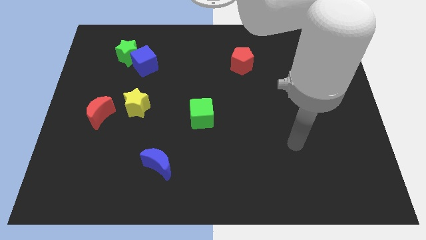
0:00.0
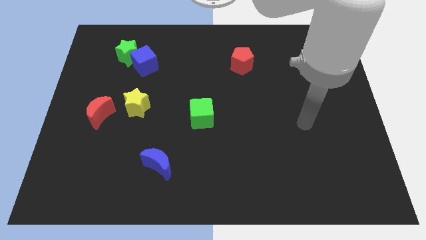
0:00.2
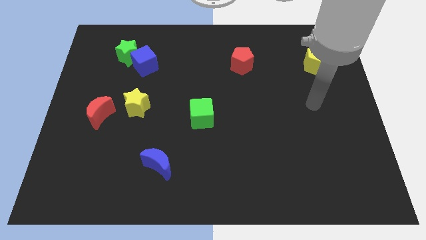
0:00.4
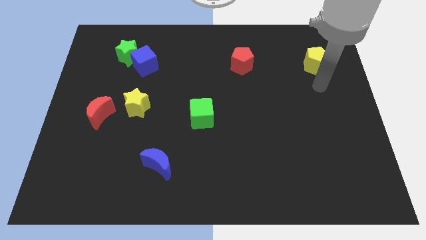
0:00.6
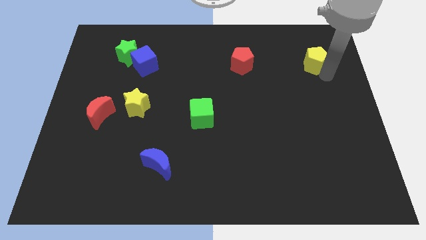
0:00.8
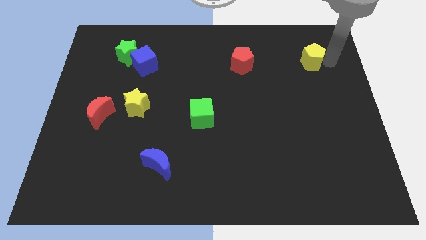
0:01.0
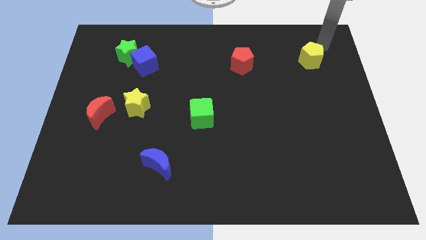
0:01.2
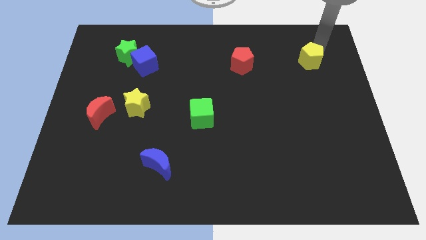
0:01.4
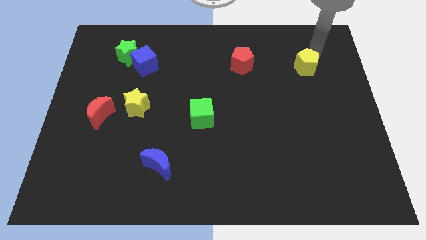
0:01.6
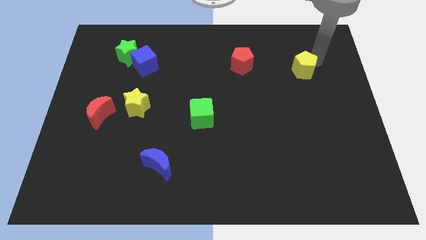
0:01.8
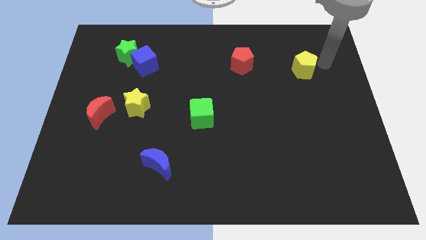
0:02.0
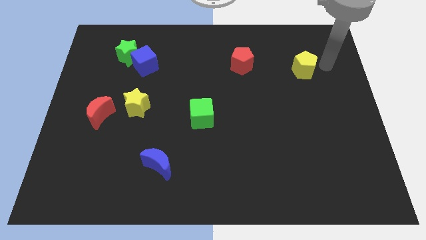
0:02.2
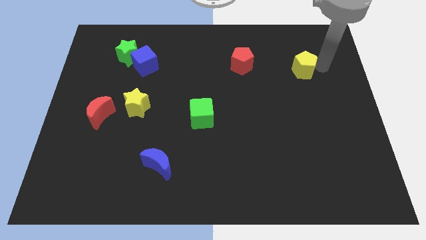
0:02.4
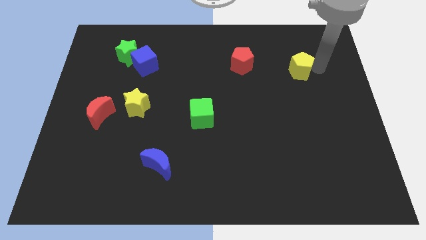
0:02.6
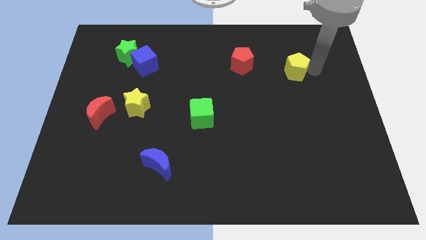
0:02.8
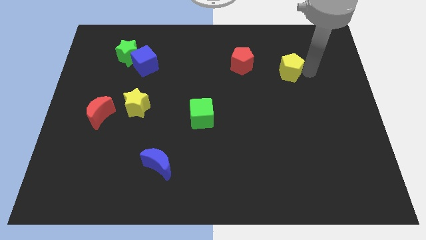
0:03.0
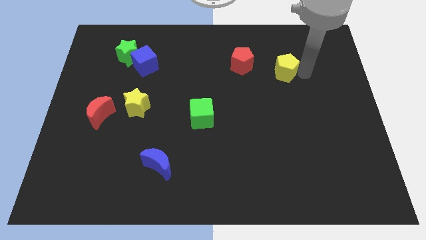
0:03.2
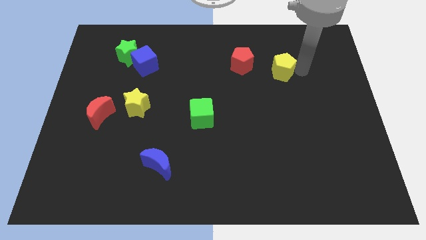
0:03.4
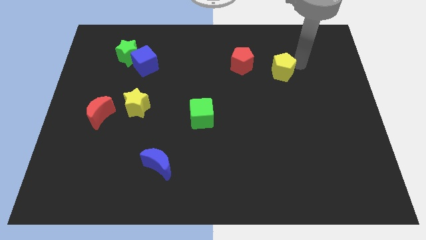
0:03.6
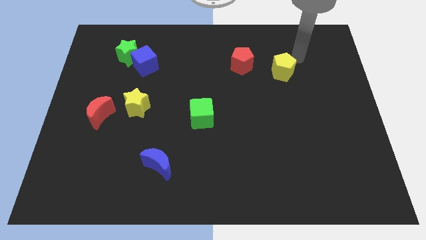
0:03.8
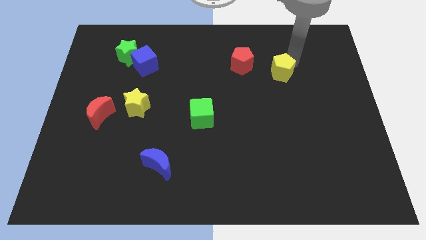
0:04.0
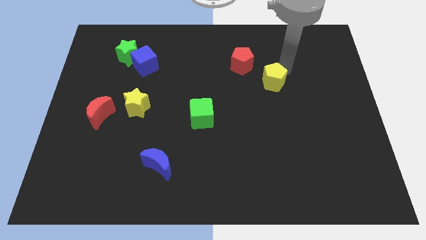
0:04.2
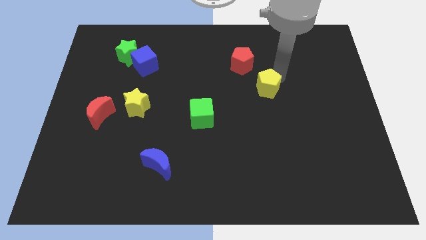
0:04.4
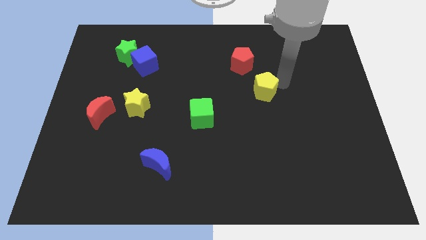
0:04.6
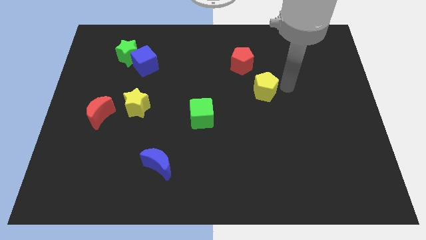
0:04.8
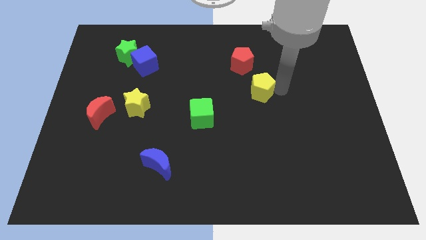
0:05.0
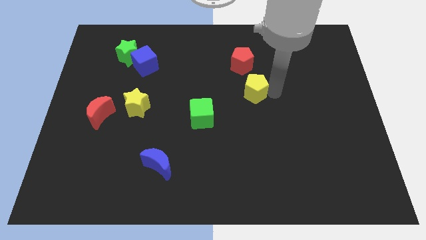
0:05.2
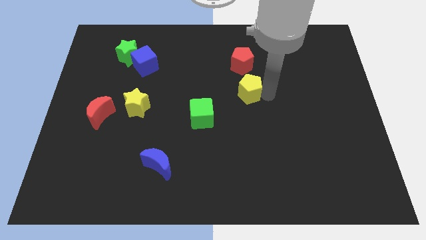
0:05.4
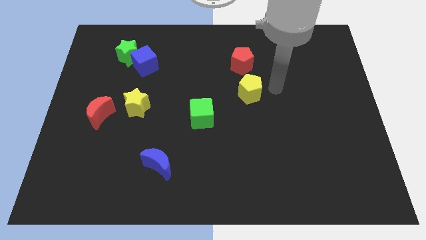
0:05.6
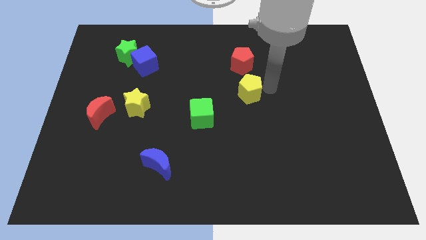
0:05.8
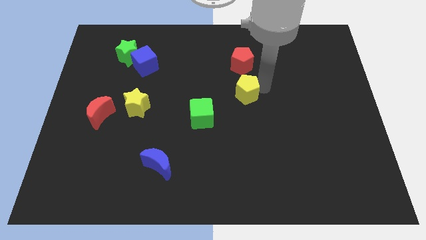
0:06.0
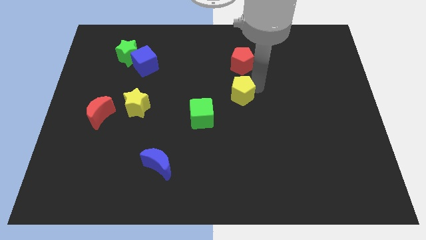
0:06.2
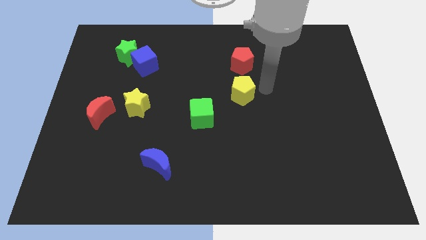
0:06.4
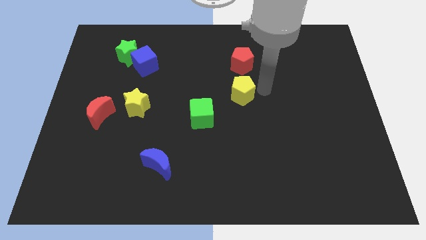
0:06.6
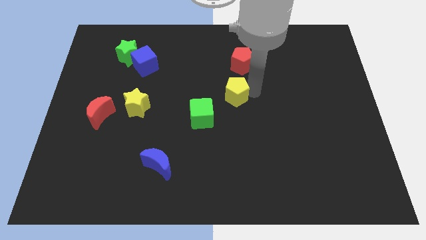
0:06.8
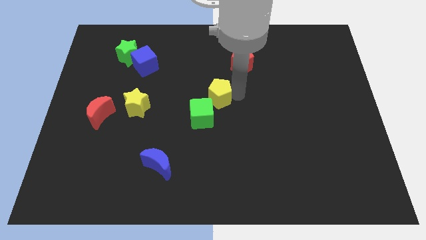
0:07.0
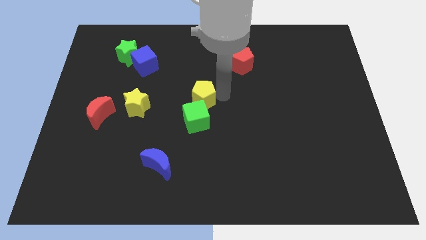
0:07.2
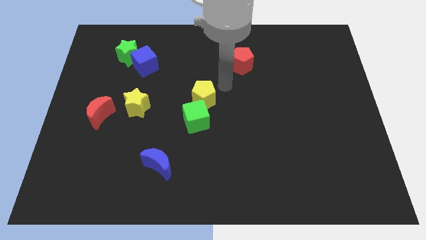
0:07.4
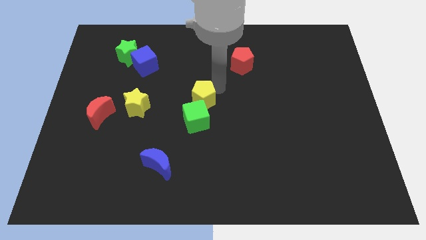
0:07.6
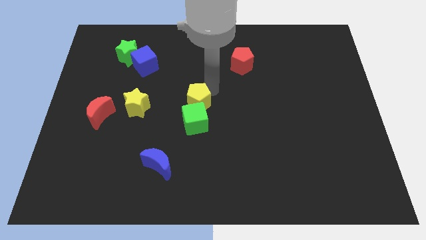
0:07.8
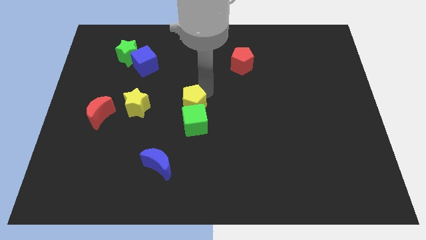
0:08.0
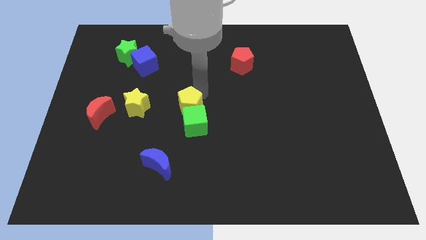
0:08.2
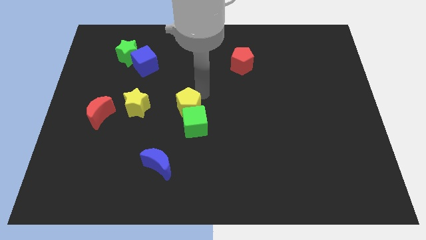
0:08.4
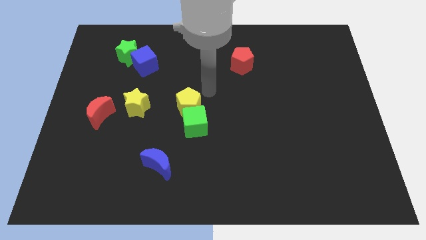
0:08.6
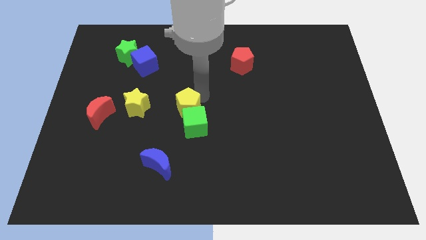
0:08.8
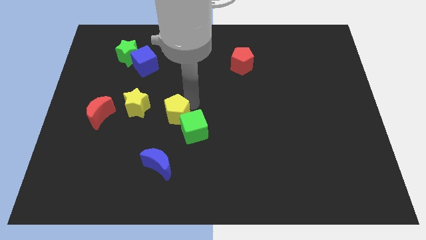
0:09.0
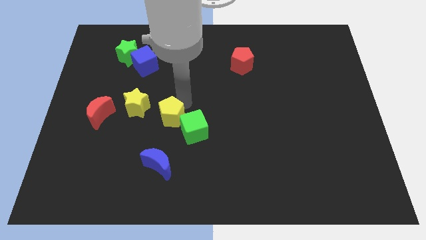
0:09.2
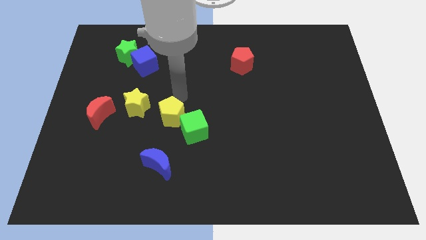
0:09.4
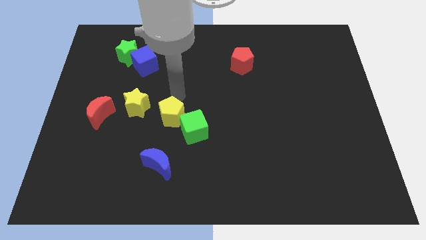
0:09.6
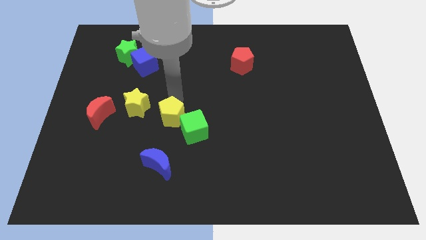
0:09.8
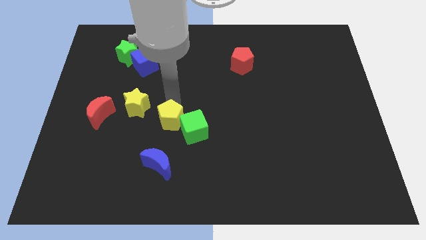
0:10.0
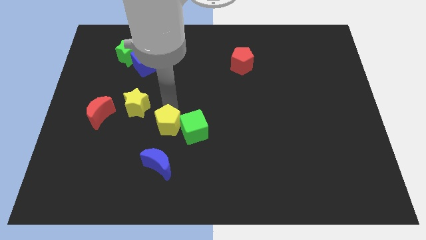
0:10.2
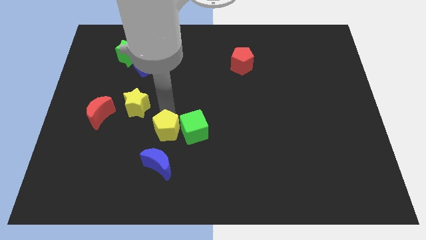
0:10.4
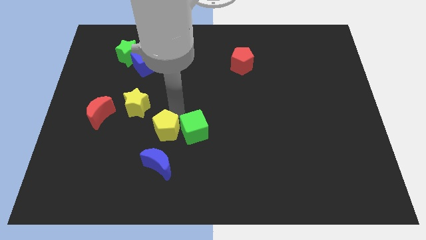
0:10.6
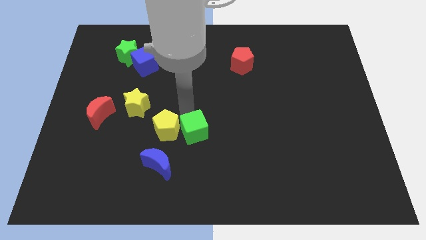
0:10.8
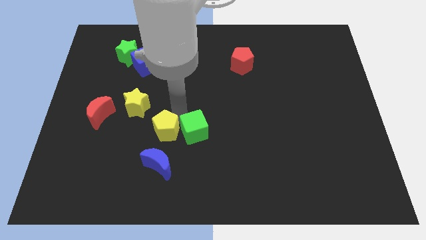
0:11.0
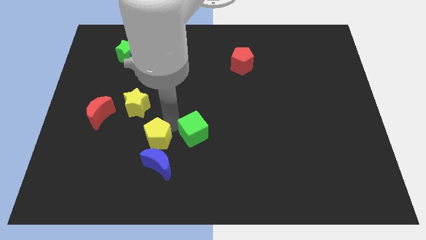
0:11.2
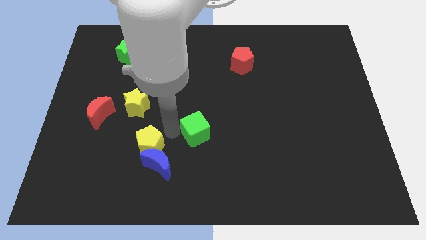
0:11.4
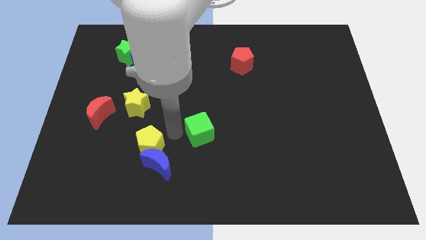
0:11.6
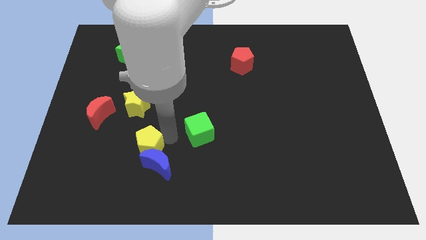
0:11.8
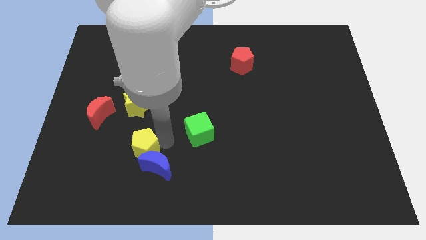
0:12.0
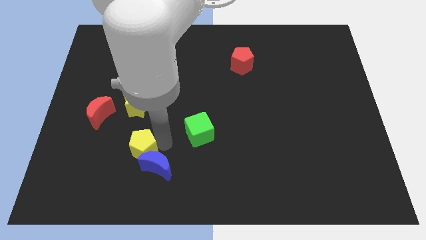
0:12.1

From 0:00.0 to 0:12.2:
push the yellow pentagon just left of the blue moon

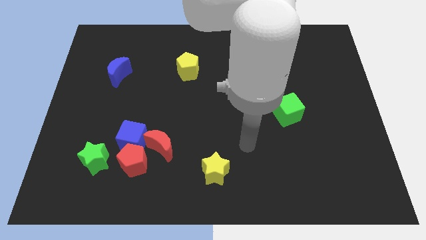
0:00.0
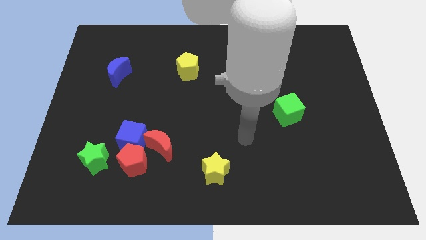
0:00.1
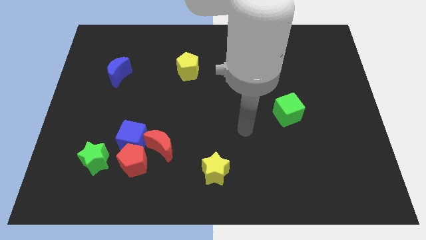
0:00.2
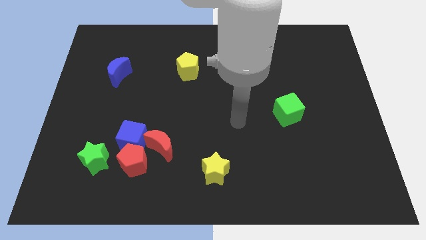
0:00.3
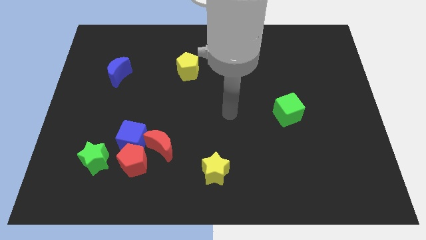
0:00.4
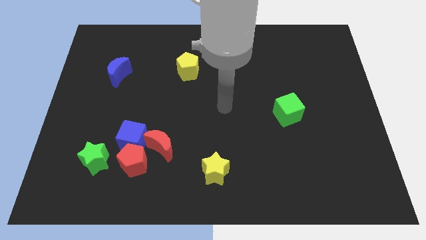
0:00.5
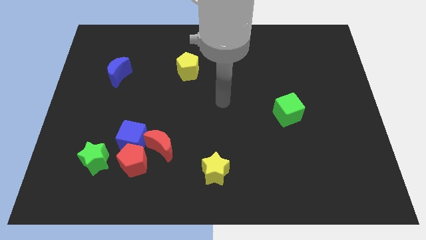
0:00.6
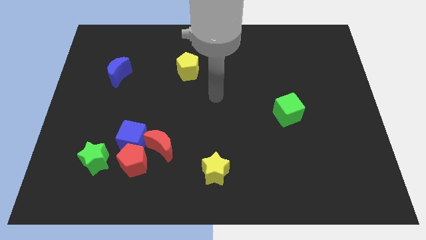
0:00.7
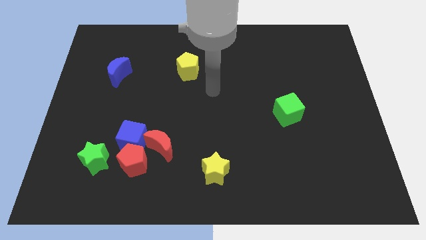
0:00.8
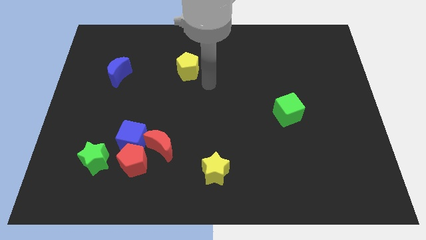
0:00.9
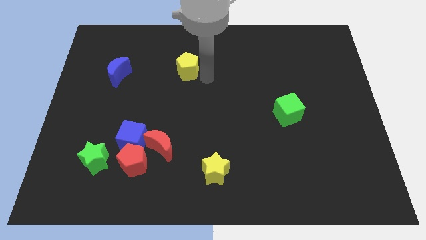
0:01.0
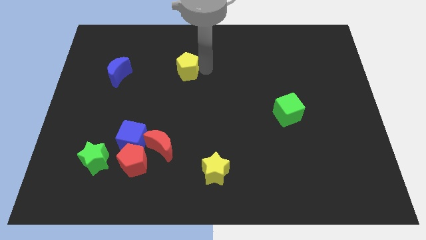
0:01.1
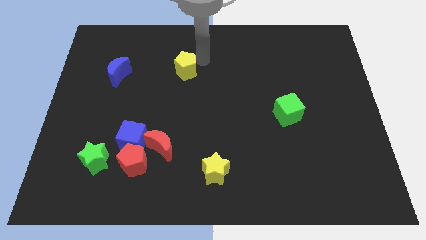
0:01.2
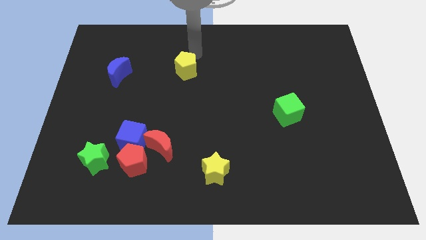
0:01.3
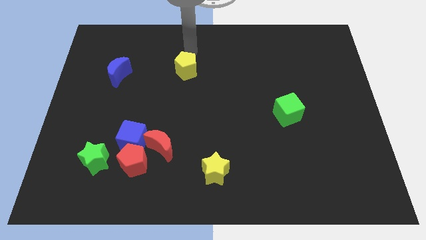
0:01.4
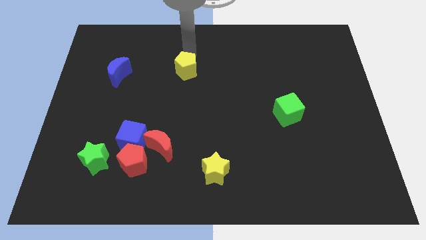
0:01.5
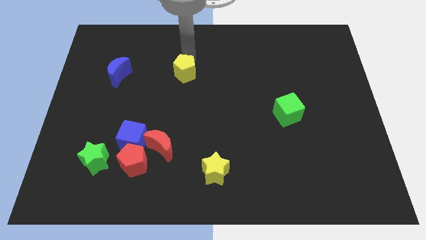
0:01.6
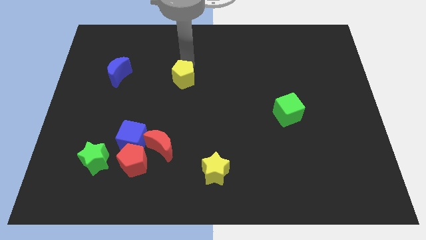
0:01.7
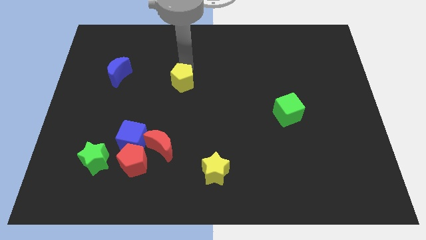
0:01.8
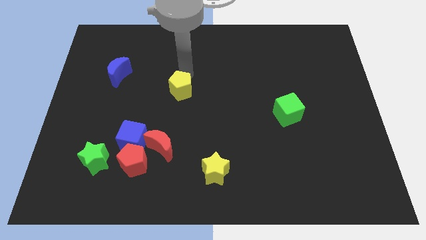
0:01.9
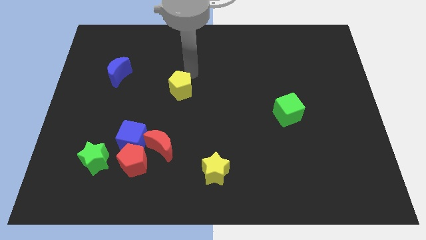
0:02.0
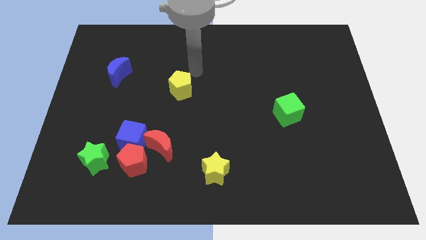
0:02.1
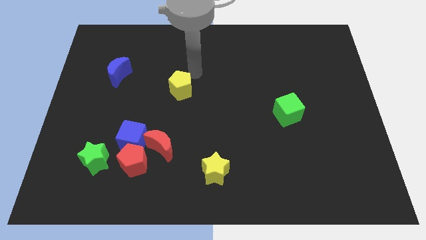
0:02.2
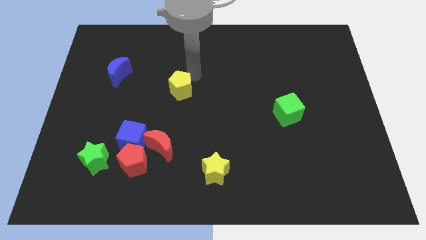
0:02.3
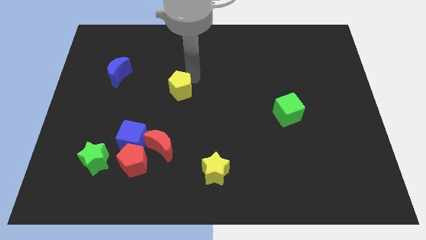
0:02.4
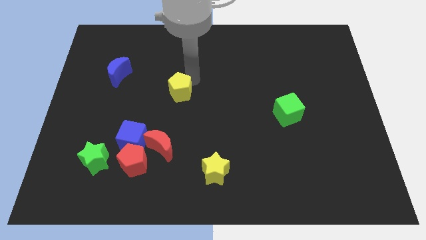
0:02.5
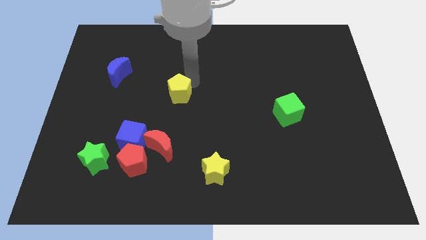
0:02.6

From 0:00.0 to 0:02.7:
push the yellow pentagon above the red moon
